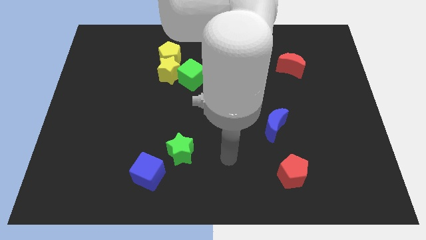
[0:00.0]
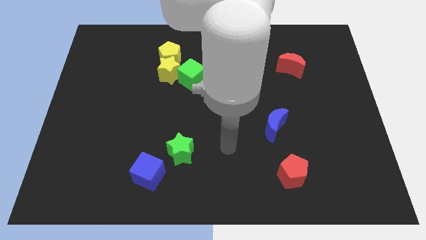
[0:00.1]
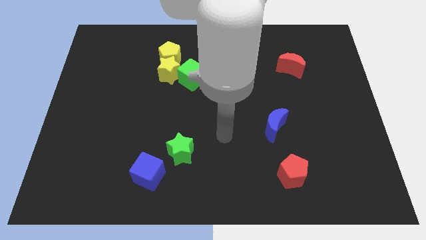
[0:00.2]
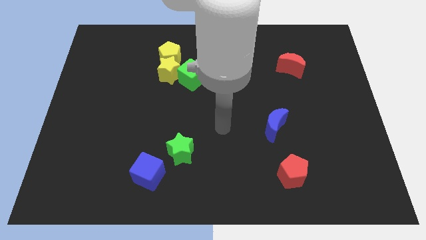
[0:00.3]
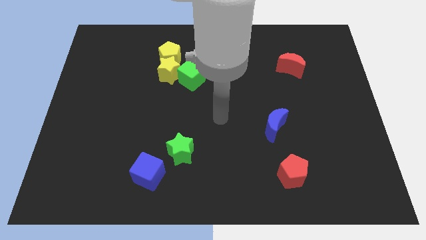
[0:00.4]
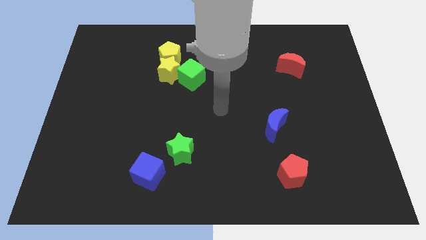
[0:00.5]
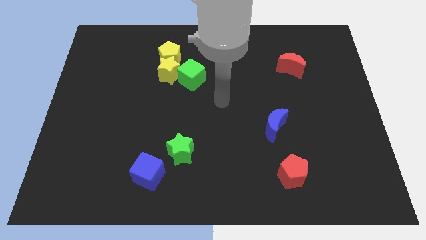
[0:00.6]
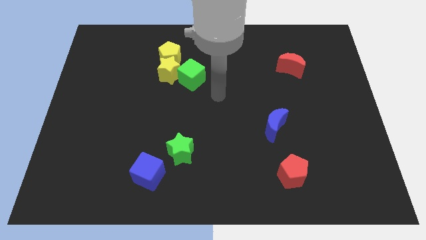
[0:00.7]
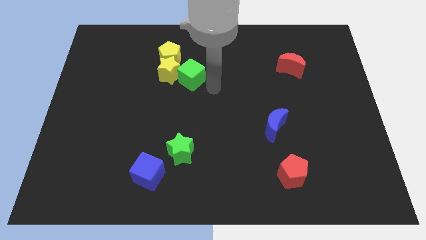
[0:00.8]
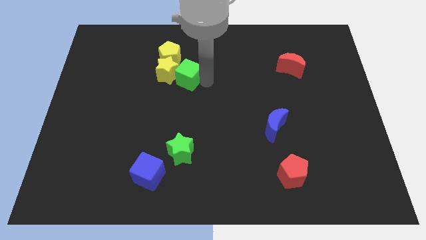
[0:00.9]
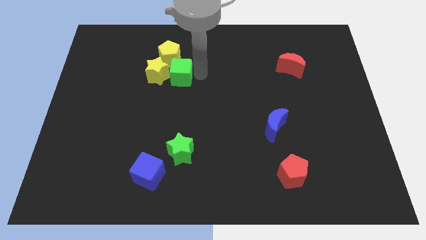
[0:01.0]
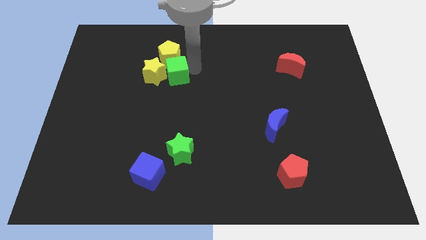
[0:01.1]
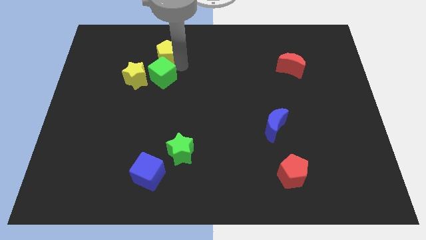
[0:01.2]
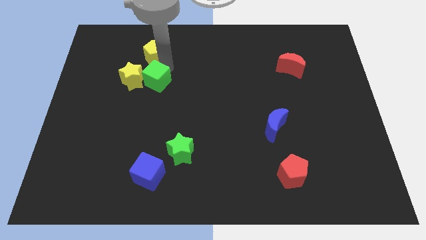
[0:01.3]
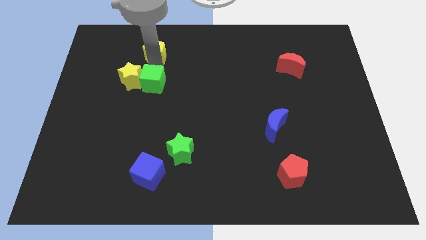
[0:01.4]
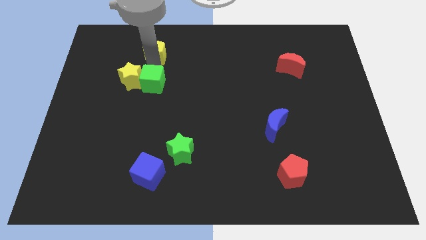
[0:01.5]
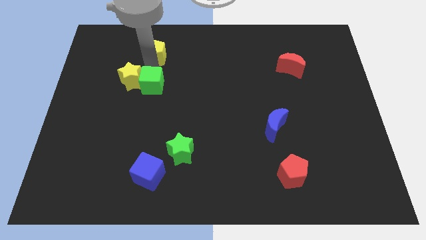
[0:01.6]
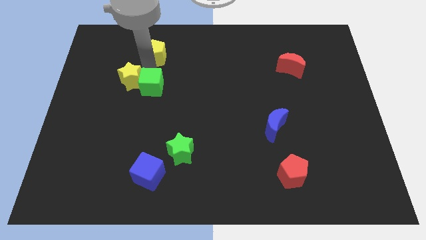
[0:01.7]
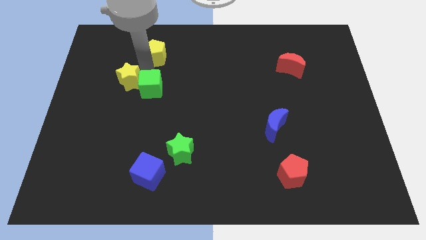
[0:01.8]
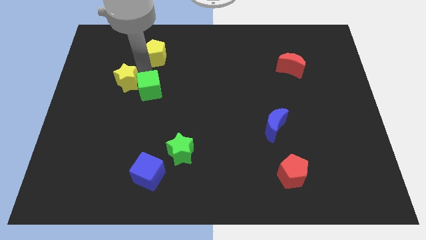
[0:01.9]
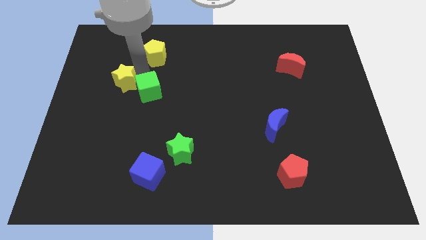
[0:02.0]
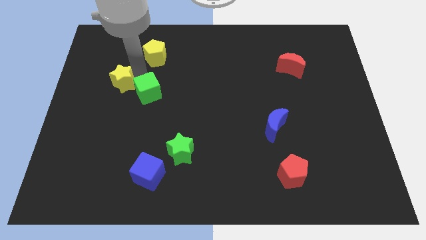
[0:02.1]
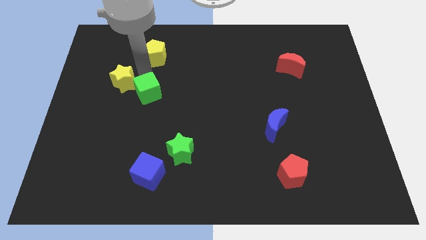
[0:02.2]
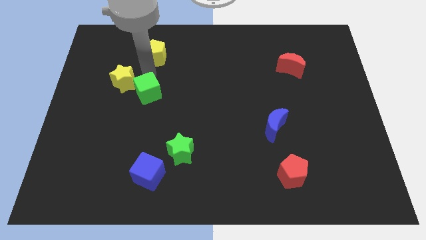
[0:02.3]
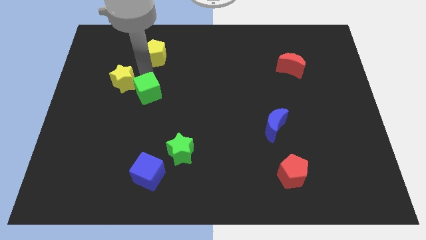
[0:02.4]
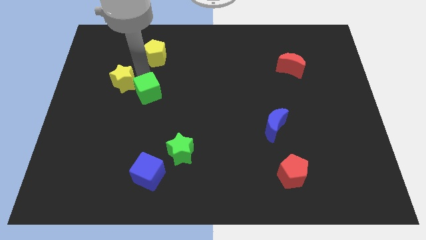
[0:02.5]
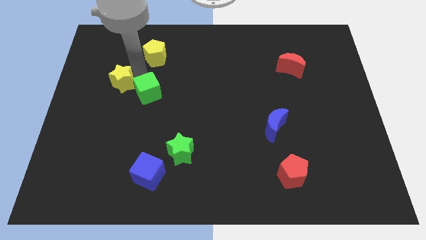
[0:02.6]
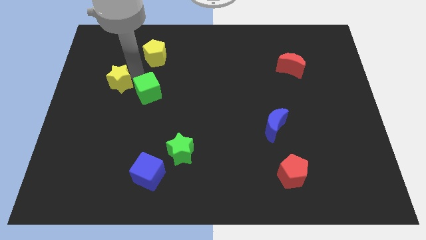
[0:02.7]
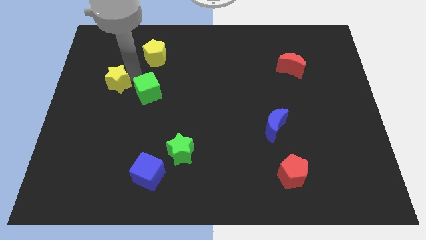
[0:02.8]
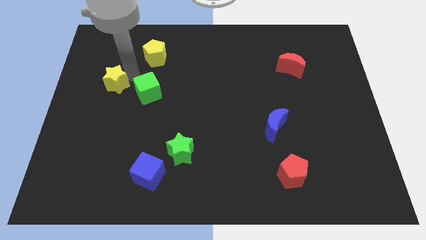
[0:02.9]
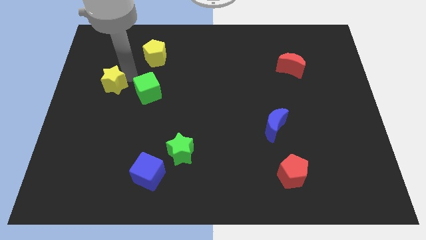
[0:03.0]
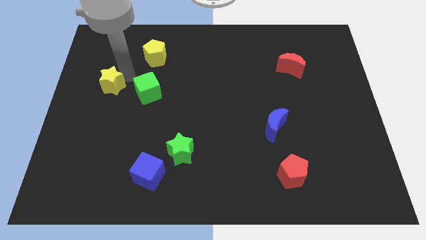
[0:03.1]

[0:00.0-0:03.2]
pull the yellow star apart from the yellow pentagon and green cube

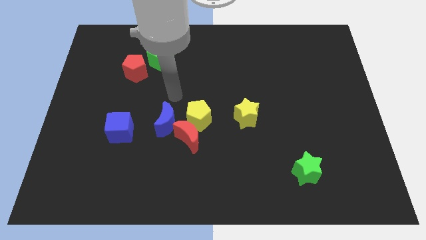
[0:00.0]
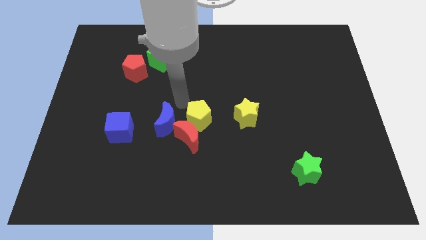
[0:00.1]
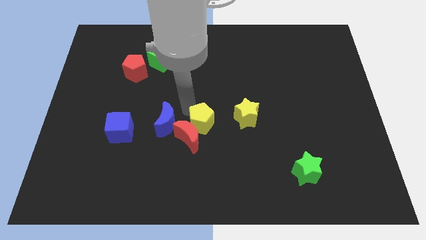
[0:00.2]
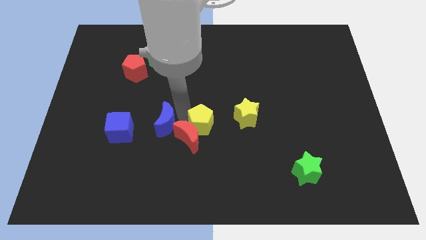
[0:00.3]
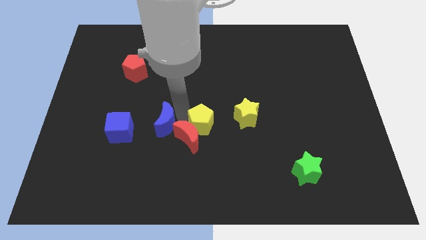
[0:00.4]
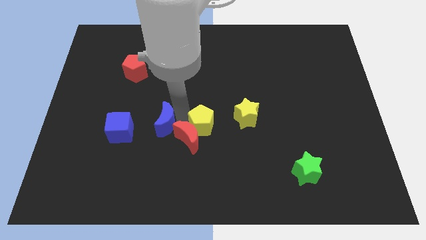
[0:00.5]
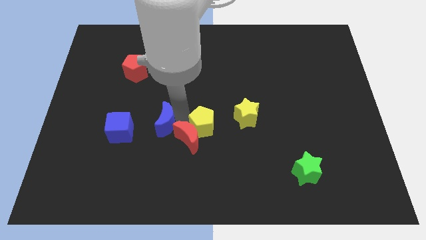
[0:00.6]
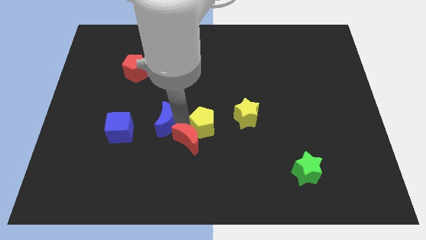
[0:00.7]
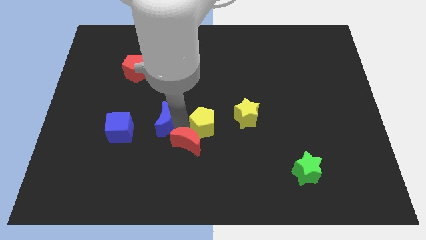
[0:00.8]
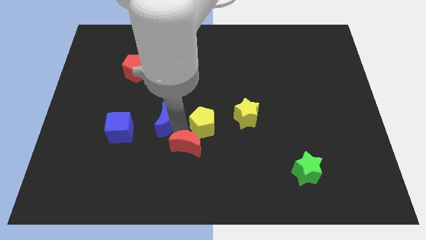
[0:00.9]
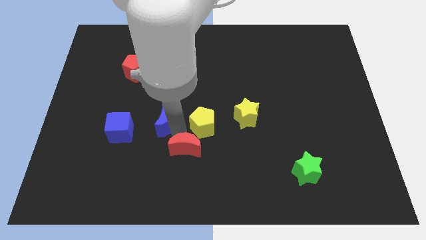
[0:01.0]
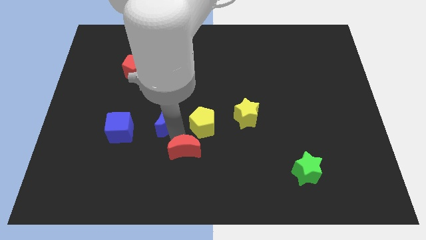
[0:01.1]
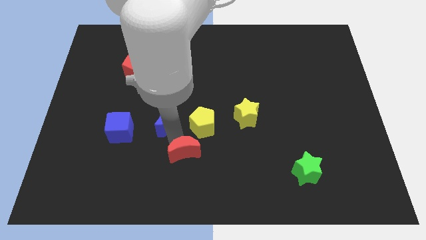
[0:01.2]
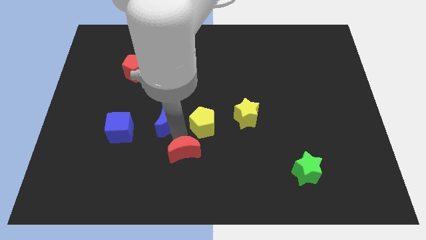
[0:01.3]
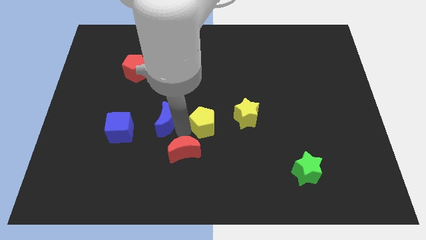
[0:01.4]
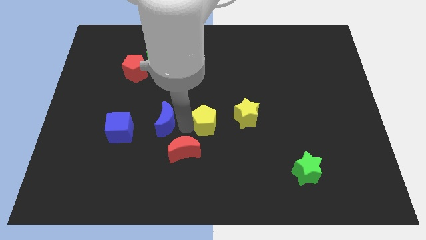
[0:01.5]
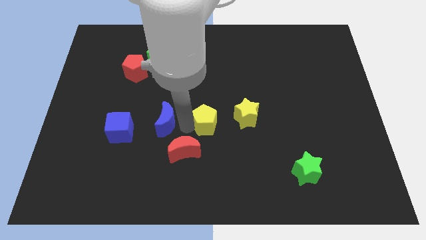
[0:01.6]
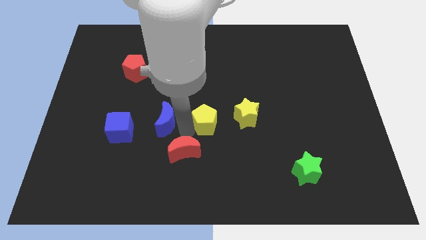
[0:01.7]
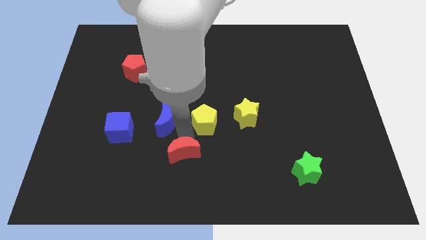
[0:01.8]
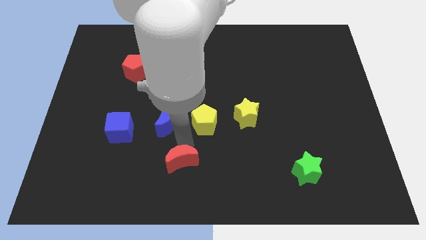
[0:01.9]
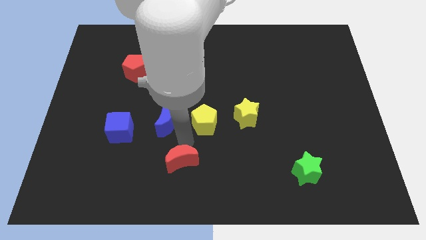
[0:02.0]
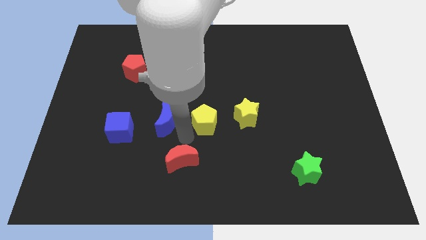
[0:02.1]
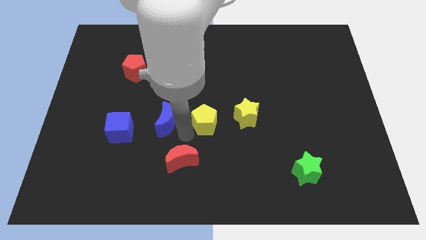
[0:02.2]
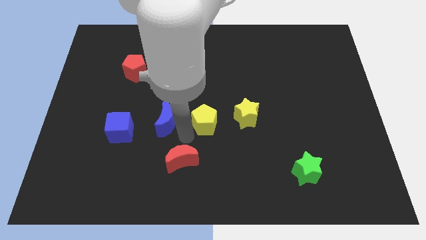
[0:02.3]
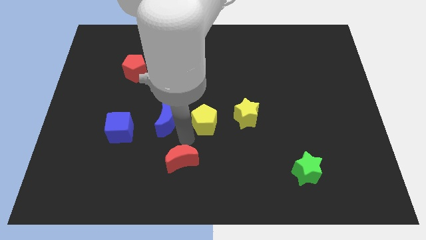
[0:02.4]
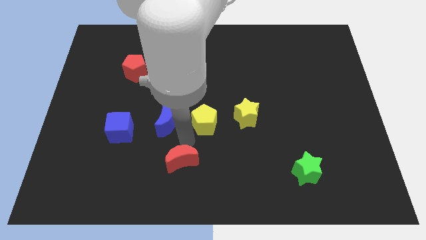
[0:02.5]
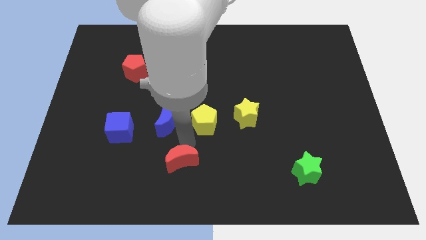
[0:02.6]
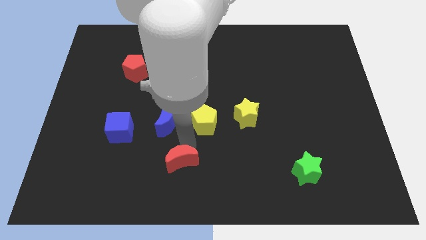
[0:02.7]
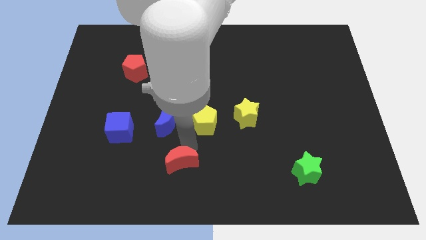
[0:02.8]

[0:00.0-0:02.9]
move the red moon away from the yellow pentagon and blue moon

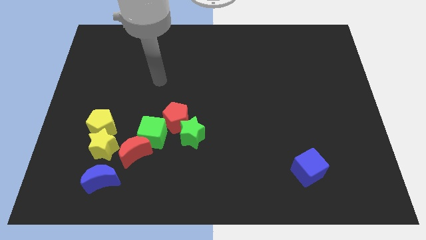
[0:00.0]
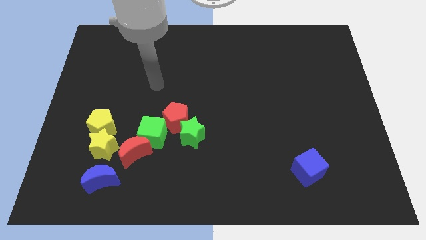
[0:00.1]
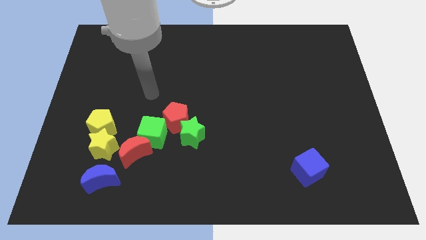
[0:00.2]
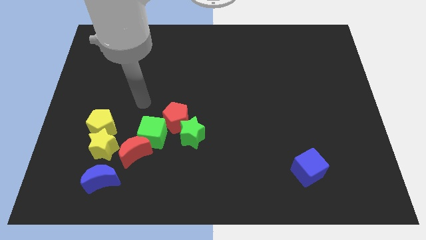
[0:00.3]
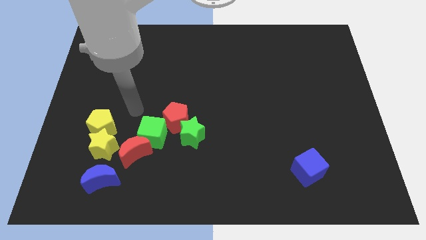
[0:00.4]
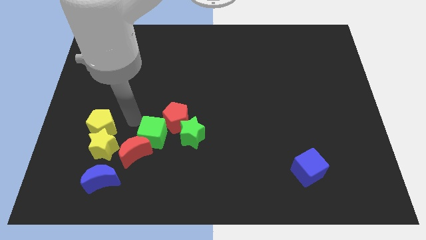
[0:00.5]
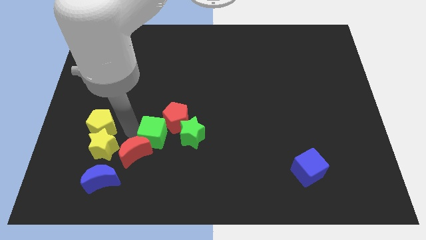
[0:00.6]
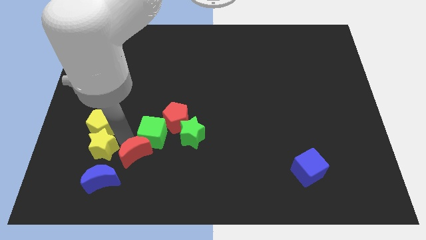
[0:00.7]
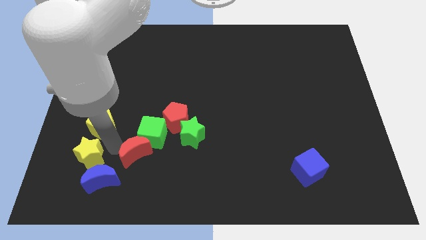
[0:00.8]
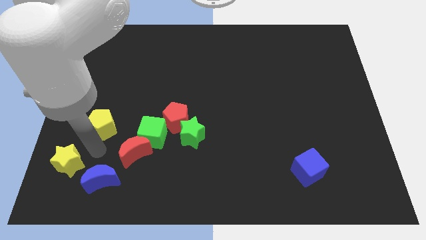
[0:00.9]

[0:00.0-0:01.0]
separate the yellow pentagon from the yellow star

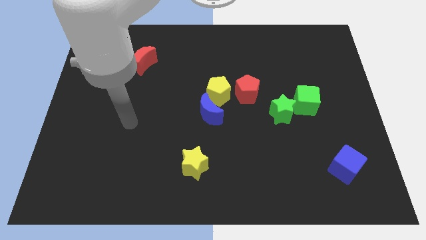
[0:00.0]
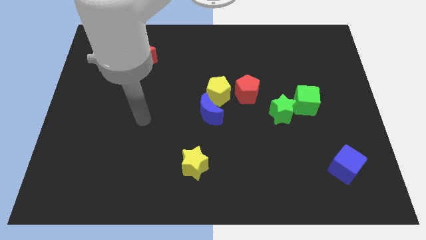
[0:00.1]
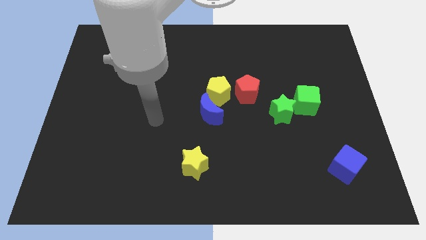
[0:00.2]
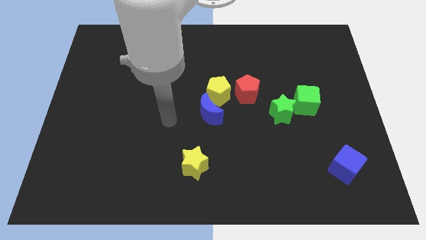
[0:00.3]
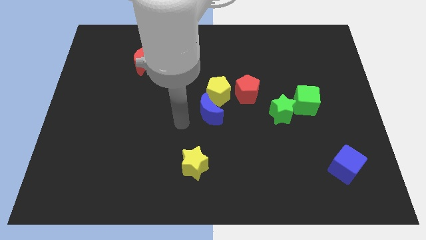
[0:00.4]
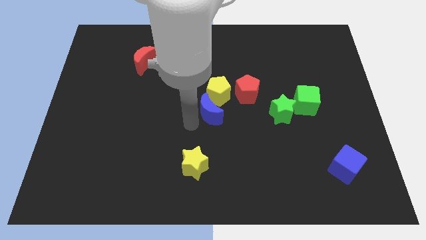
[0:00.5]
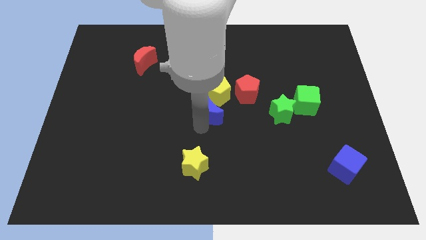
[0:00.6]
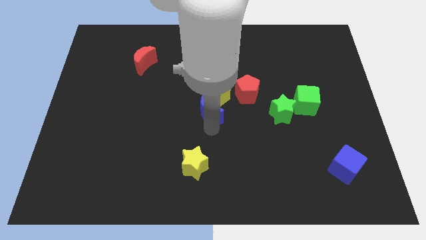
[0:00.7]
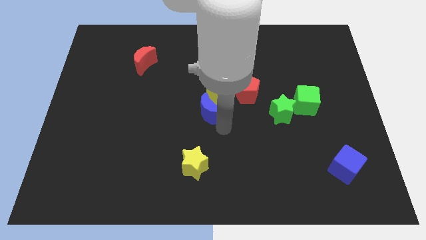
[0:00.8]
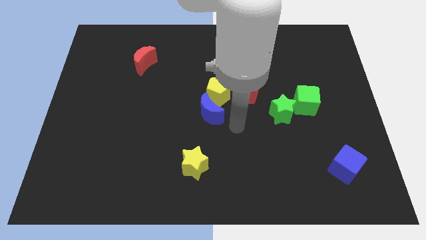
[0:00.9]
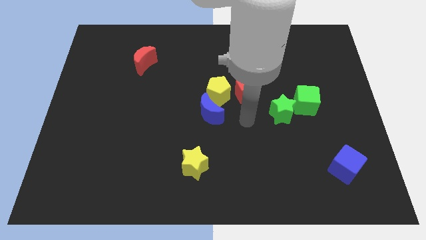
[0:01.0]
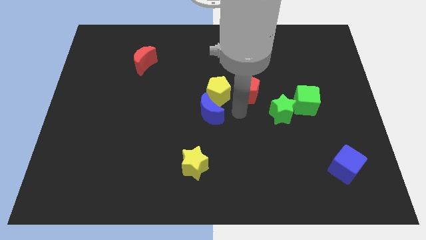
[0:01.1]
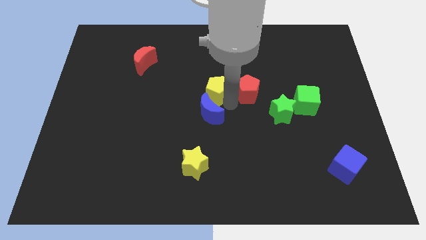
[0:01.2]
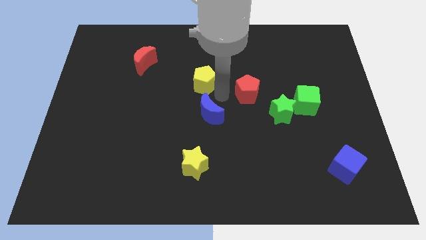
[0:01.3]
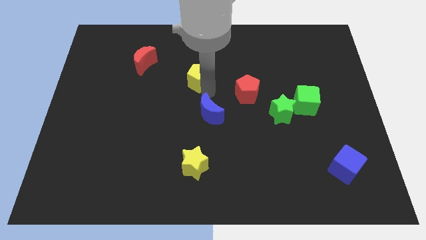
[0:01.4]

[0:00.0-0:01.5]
separate the blue moon from the yellow pentagon

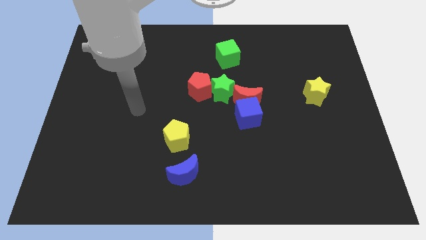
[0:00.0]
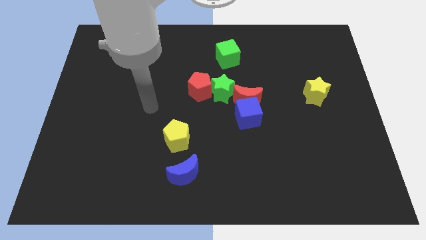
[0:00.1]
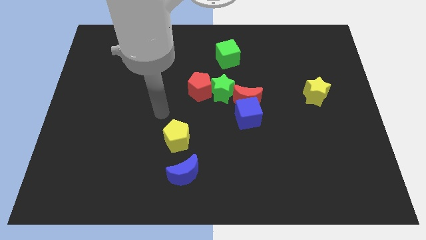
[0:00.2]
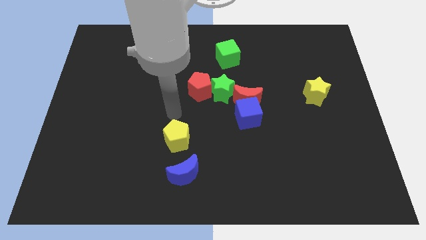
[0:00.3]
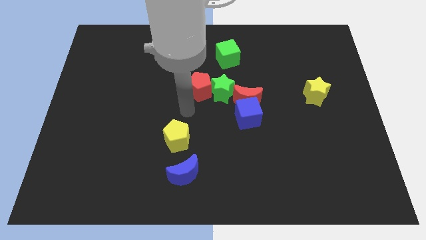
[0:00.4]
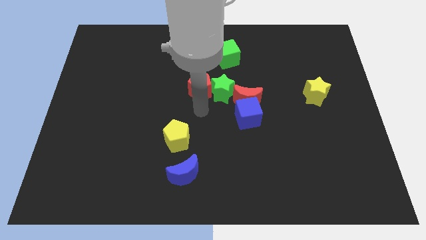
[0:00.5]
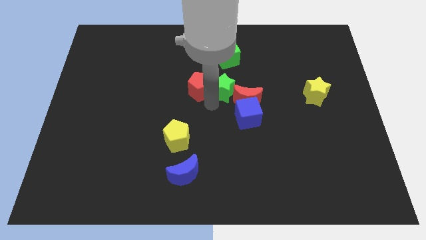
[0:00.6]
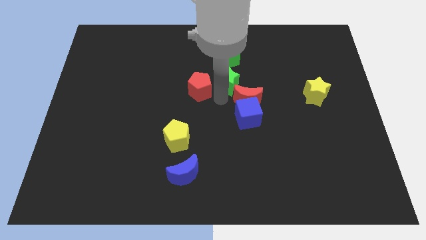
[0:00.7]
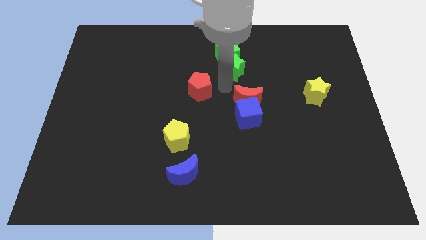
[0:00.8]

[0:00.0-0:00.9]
pull the red pentagon apart from the green star
